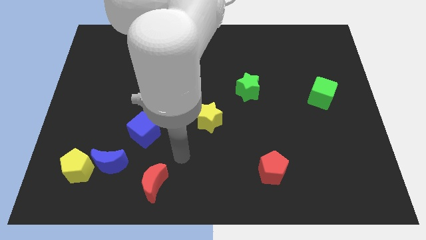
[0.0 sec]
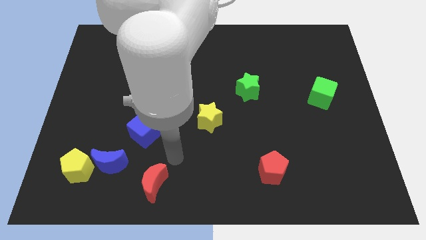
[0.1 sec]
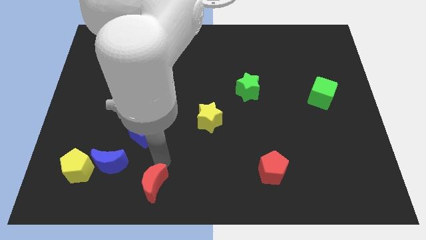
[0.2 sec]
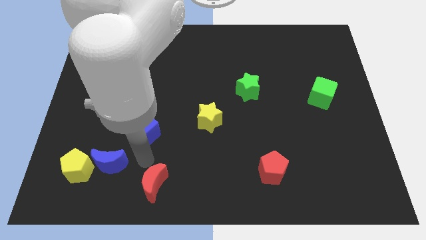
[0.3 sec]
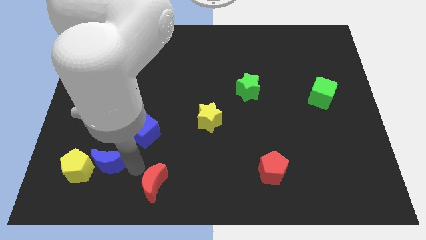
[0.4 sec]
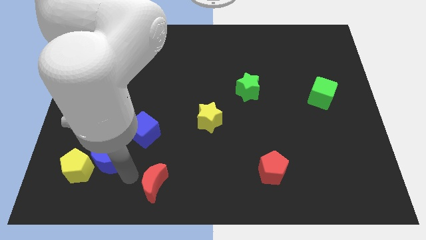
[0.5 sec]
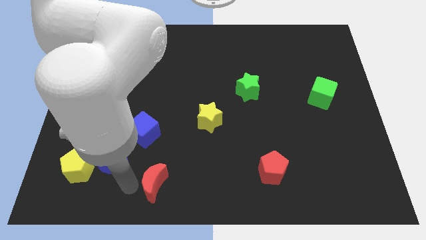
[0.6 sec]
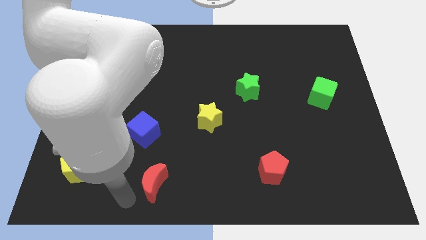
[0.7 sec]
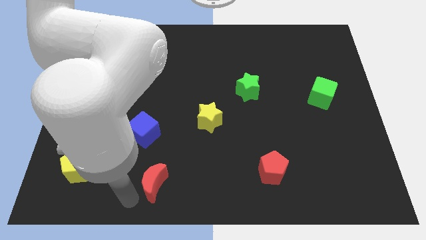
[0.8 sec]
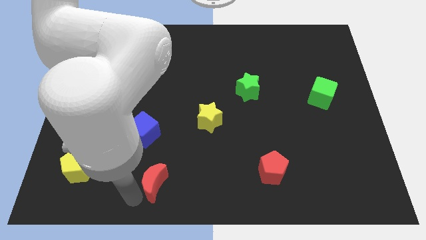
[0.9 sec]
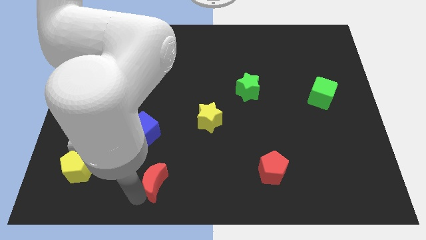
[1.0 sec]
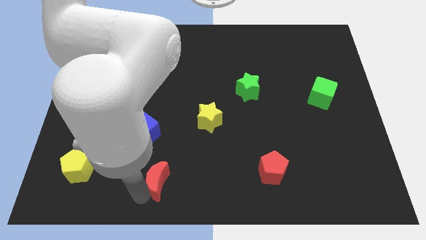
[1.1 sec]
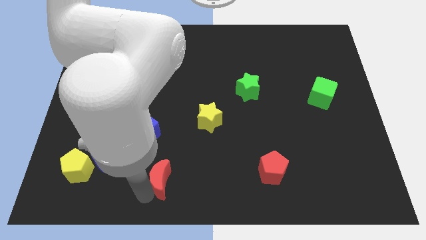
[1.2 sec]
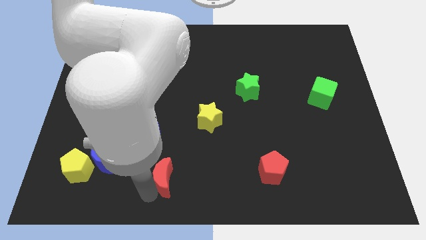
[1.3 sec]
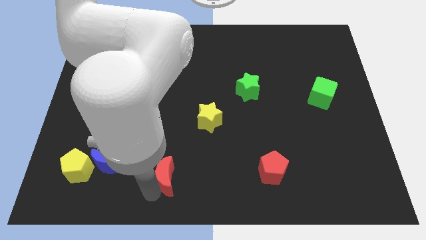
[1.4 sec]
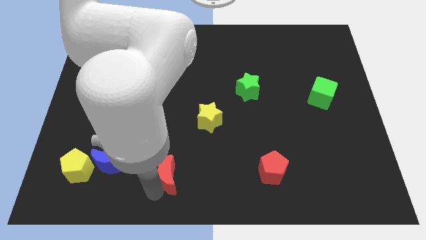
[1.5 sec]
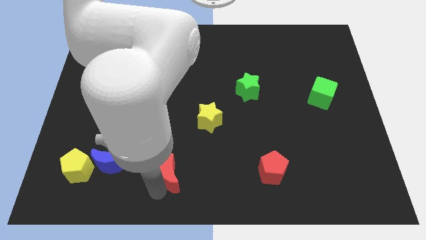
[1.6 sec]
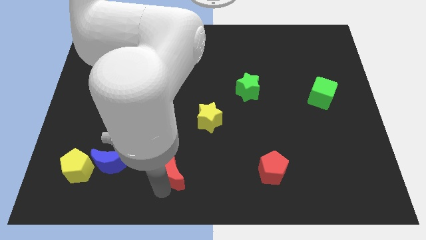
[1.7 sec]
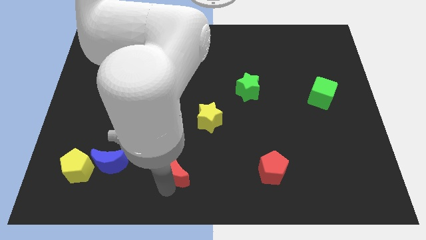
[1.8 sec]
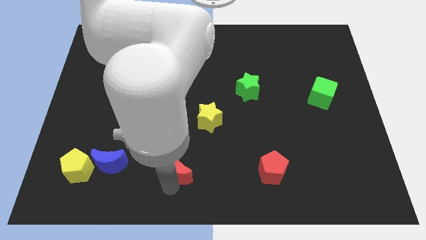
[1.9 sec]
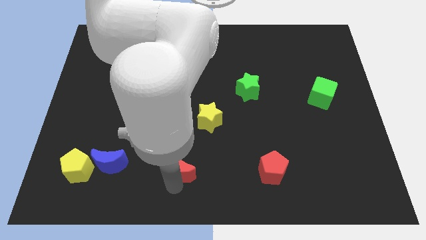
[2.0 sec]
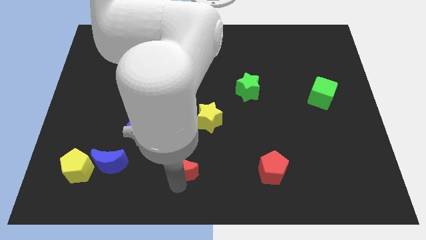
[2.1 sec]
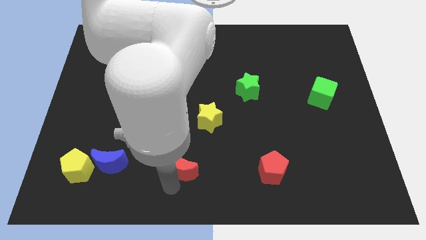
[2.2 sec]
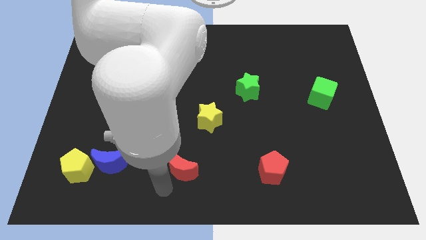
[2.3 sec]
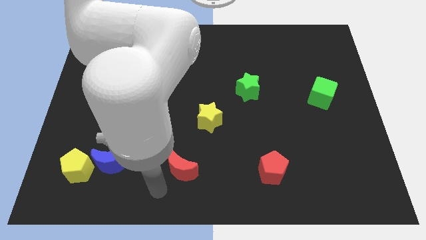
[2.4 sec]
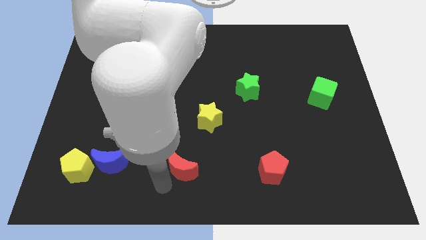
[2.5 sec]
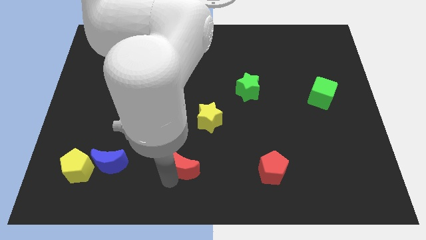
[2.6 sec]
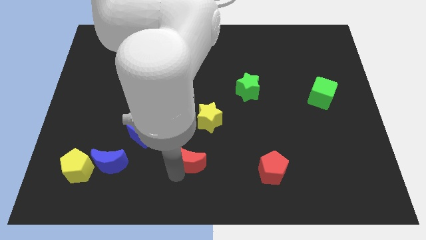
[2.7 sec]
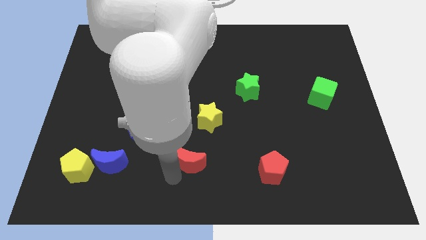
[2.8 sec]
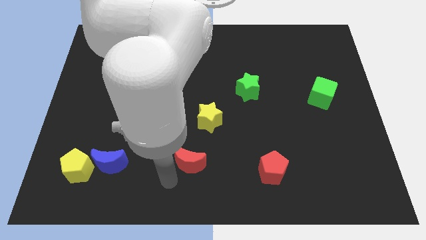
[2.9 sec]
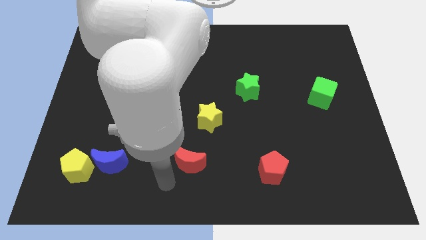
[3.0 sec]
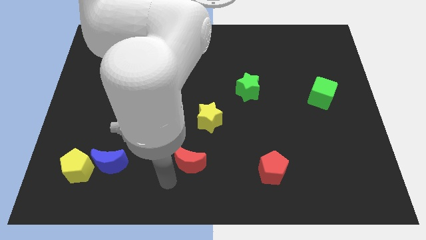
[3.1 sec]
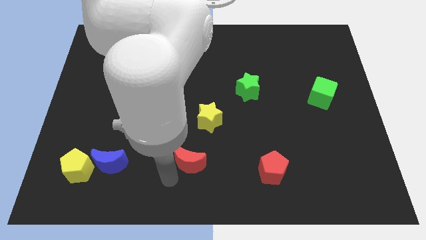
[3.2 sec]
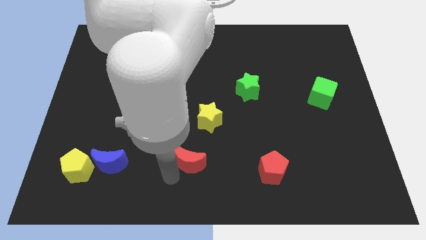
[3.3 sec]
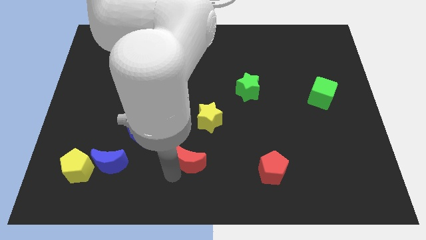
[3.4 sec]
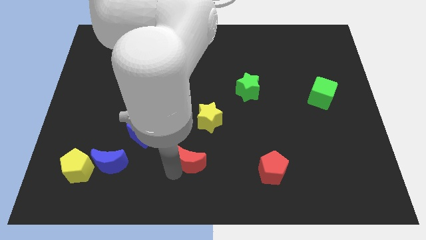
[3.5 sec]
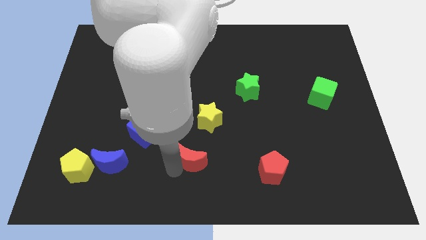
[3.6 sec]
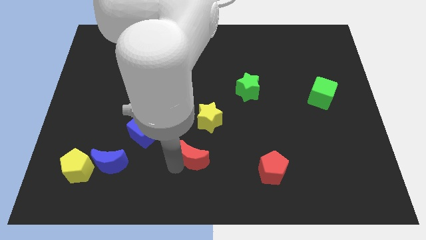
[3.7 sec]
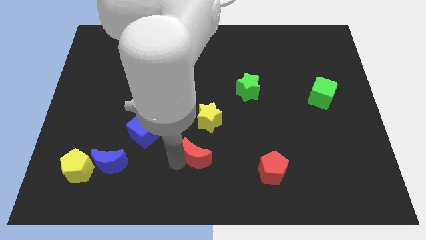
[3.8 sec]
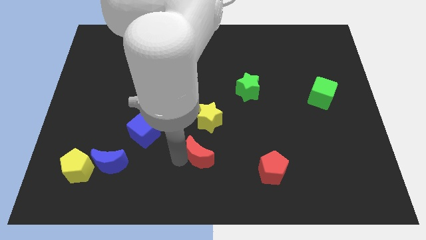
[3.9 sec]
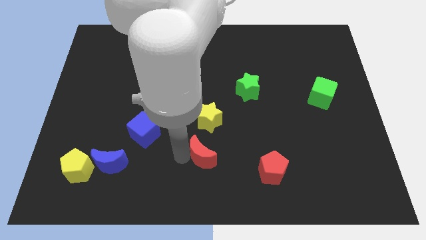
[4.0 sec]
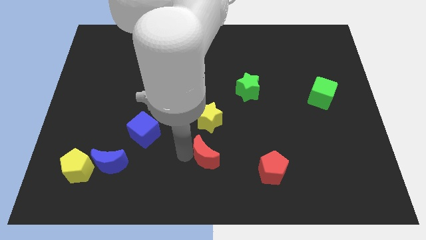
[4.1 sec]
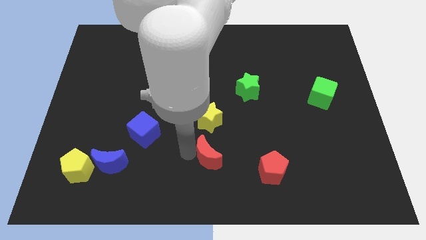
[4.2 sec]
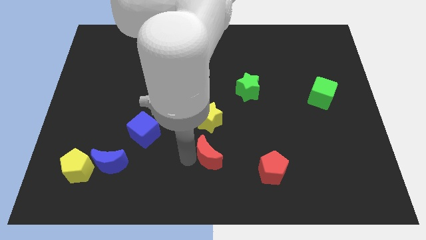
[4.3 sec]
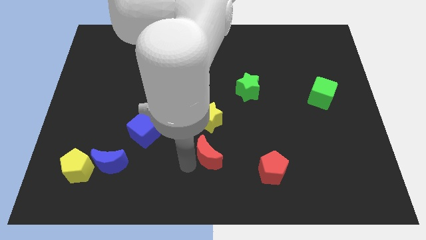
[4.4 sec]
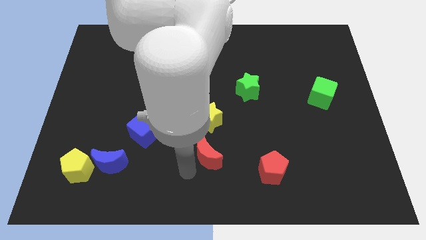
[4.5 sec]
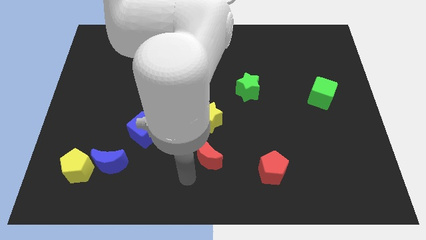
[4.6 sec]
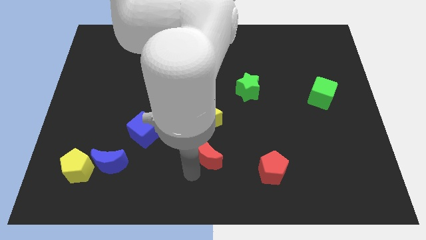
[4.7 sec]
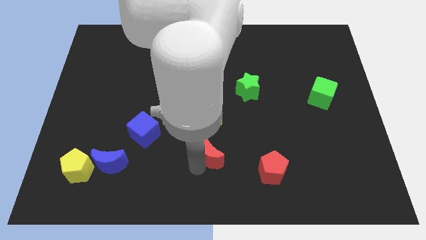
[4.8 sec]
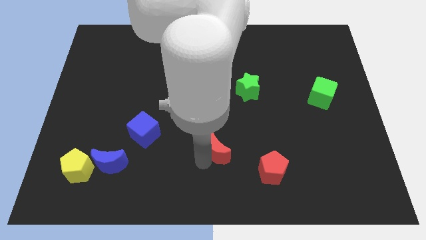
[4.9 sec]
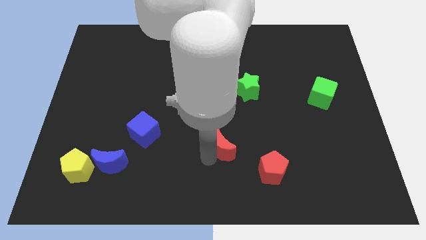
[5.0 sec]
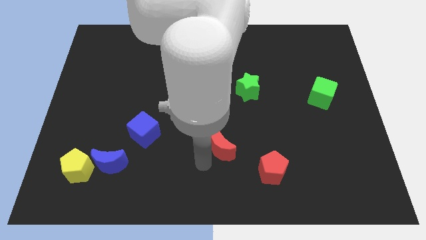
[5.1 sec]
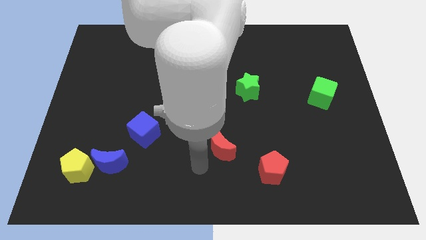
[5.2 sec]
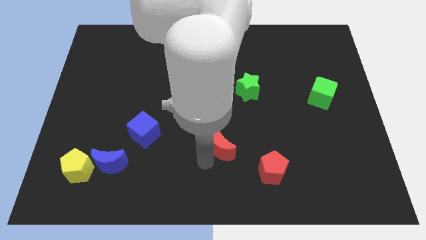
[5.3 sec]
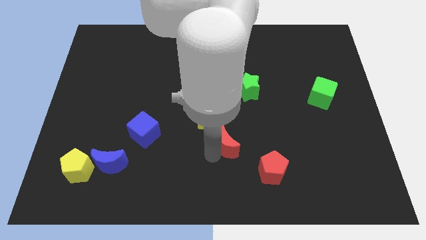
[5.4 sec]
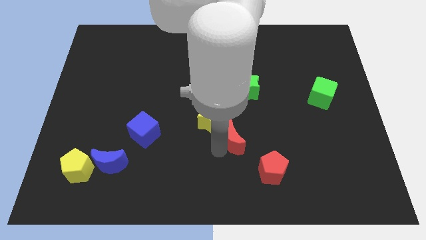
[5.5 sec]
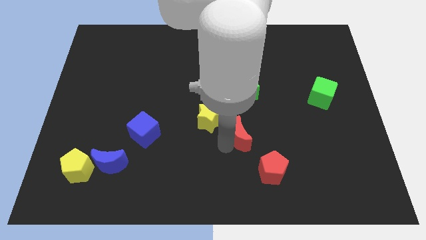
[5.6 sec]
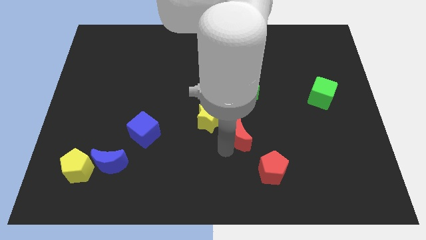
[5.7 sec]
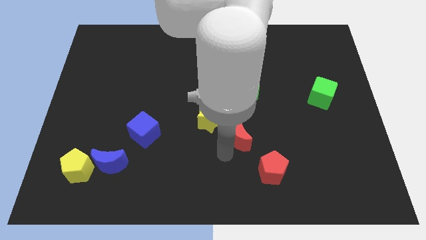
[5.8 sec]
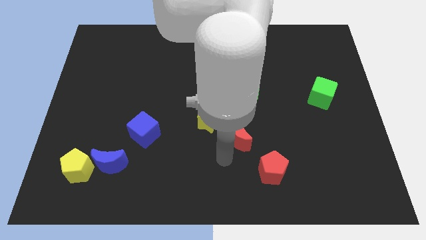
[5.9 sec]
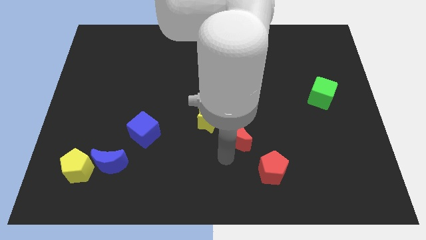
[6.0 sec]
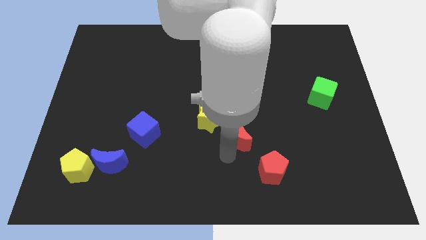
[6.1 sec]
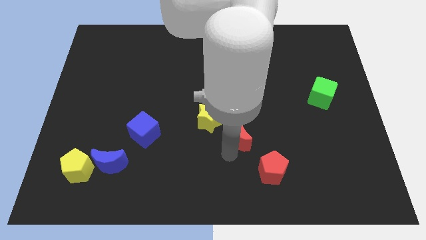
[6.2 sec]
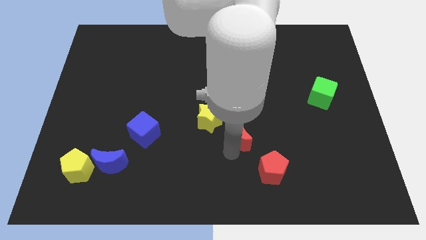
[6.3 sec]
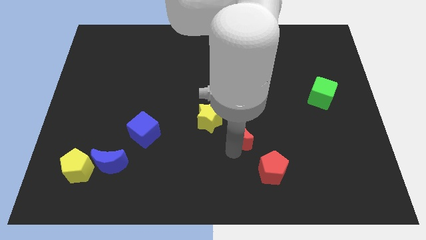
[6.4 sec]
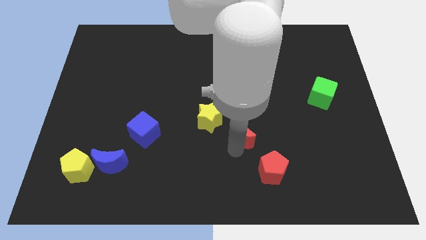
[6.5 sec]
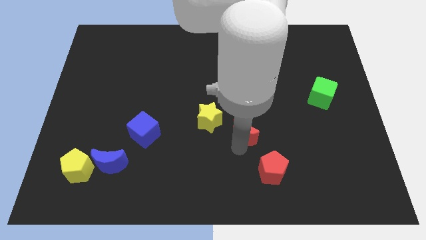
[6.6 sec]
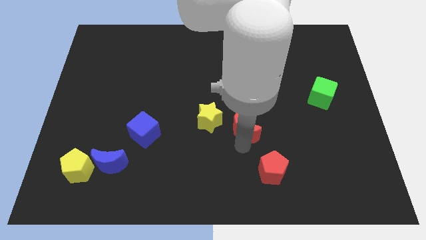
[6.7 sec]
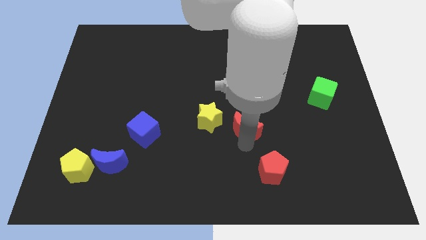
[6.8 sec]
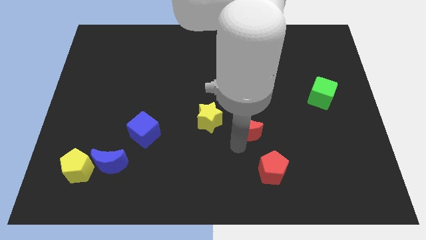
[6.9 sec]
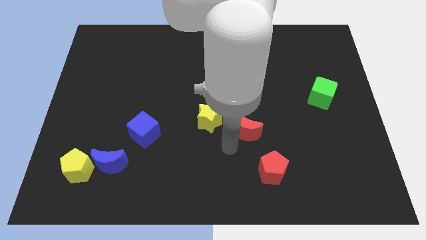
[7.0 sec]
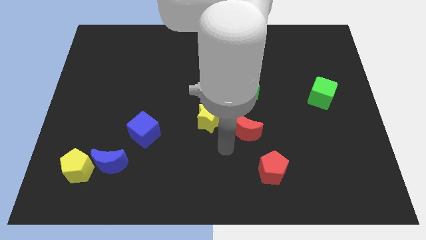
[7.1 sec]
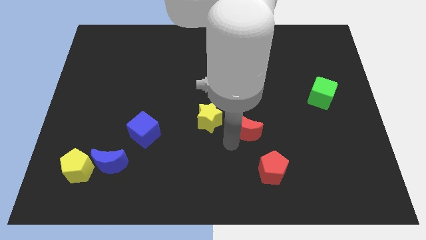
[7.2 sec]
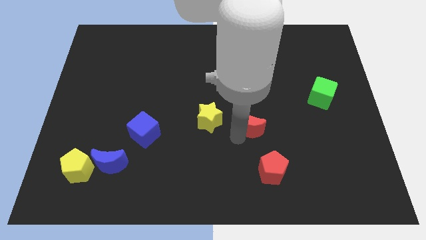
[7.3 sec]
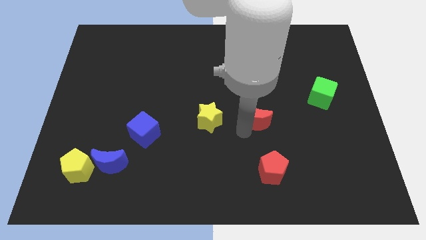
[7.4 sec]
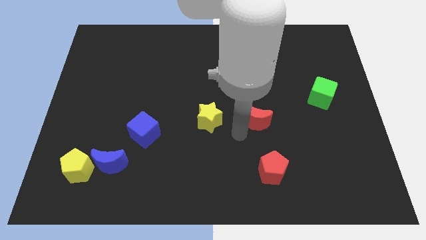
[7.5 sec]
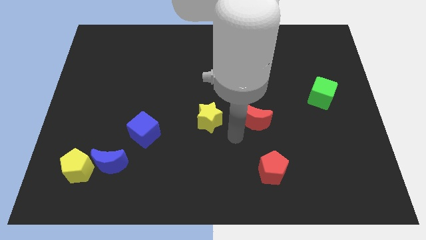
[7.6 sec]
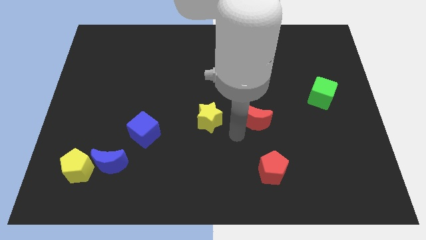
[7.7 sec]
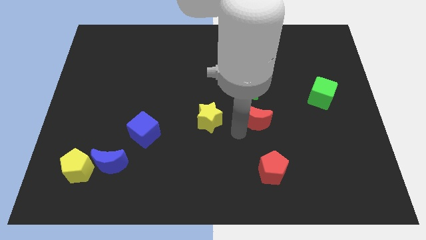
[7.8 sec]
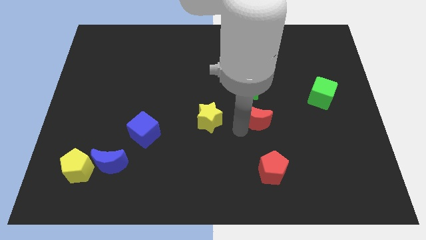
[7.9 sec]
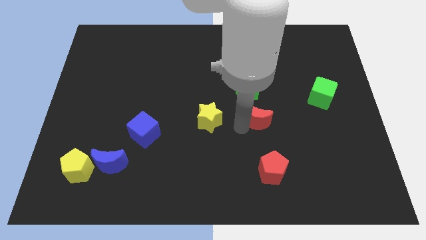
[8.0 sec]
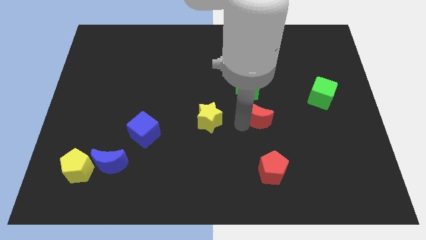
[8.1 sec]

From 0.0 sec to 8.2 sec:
put the red moon to the bottom right side of the green star
